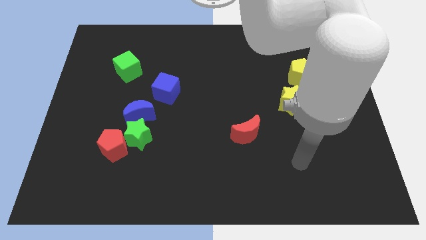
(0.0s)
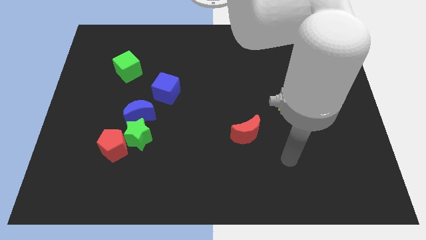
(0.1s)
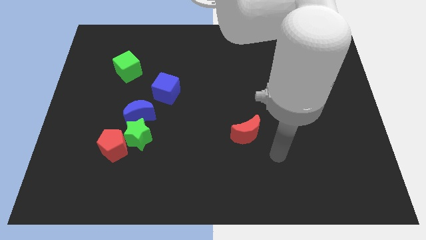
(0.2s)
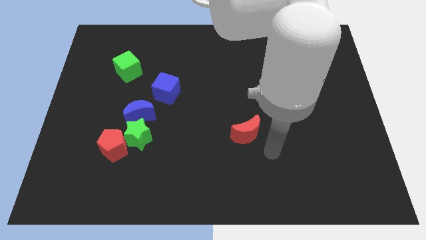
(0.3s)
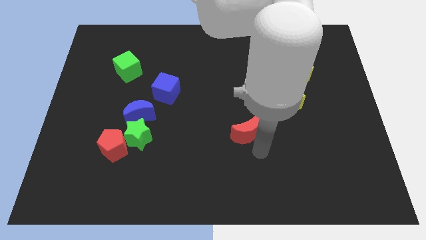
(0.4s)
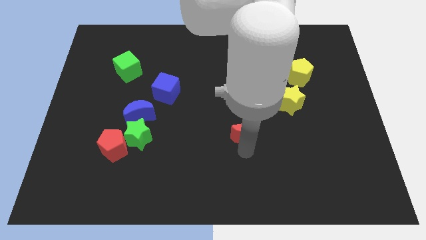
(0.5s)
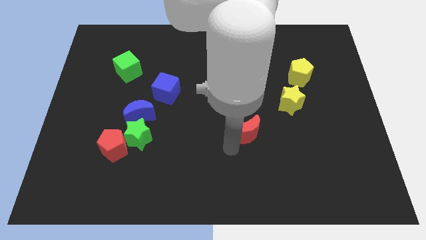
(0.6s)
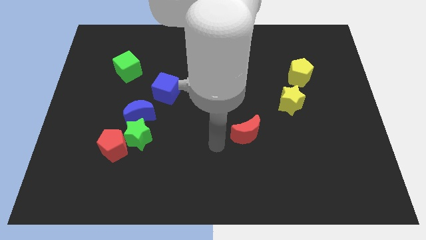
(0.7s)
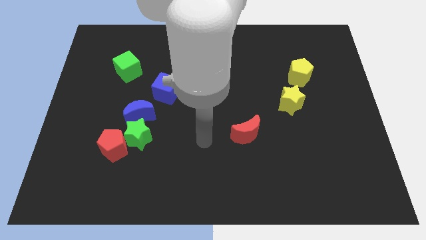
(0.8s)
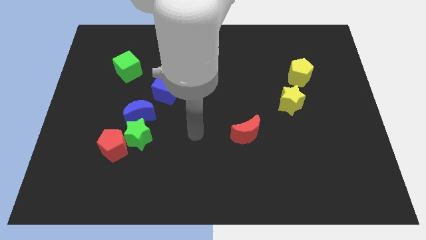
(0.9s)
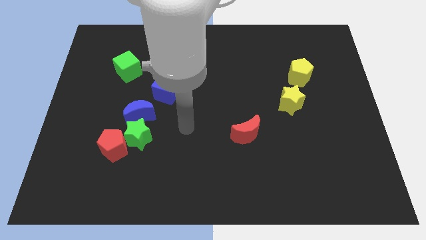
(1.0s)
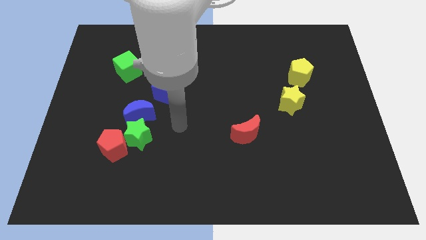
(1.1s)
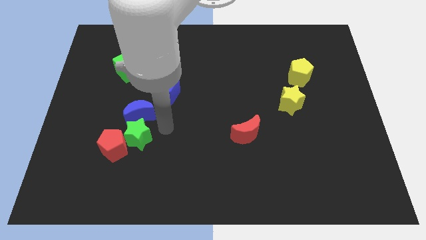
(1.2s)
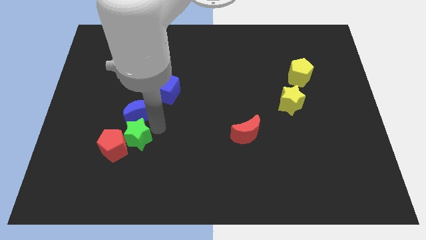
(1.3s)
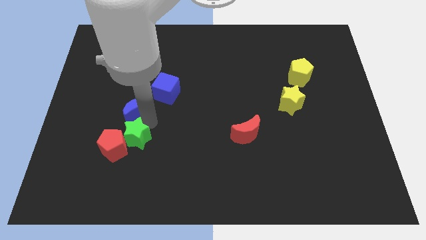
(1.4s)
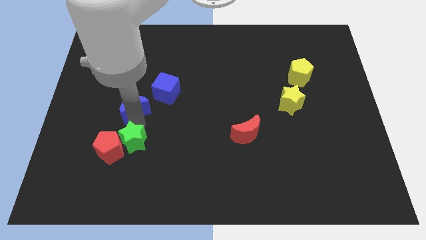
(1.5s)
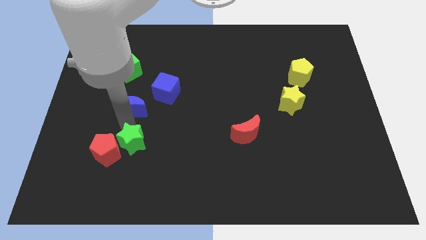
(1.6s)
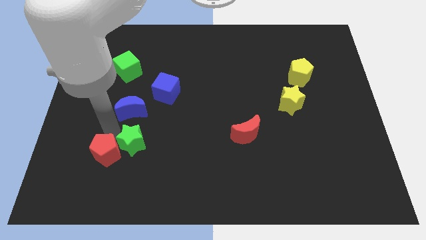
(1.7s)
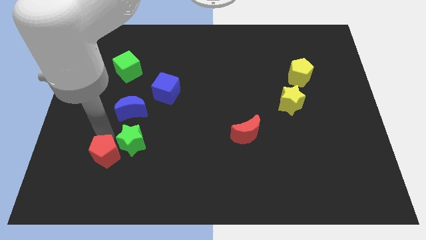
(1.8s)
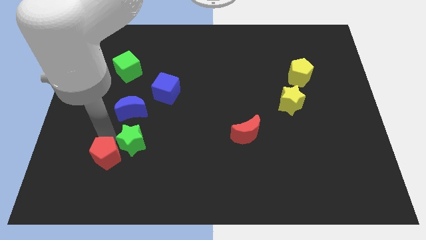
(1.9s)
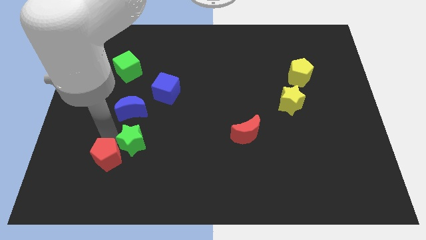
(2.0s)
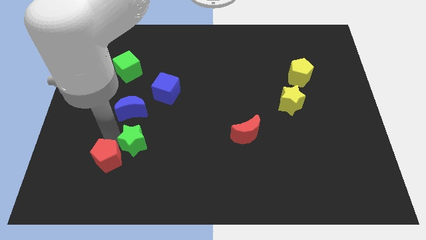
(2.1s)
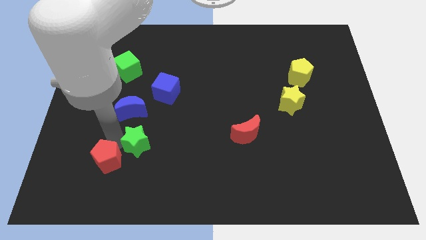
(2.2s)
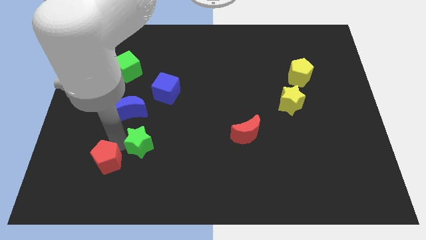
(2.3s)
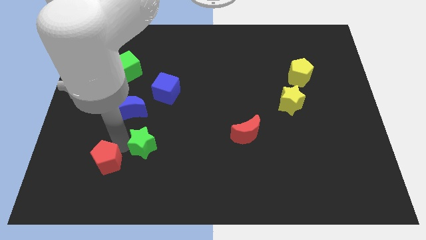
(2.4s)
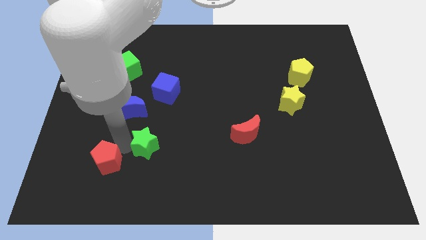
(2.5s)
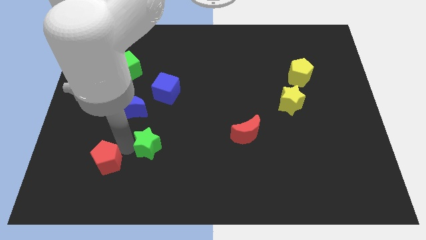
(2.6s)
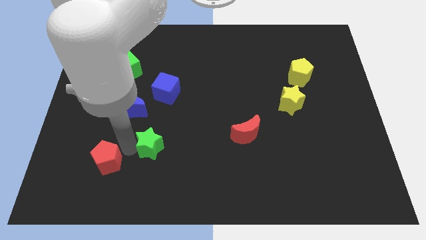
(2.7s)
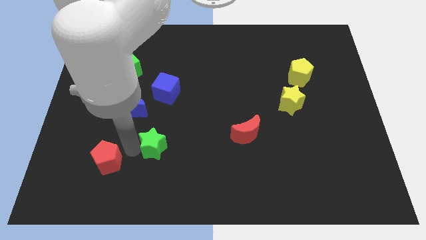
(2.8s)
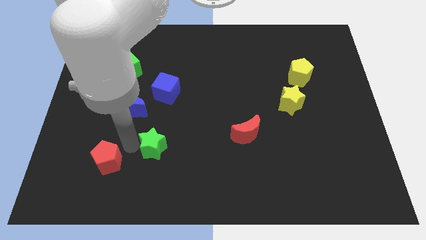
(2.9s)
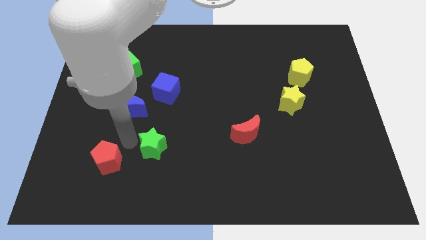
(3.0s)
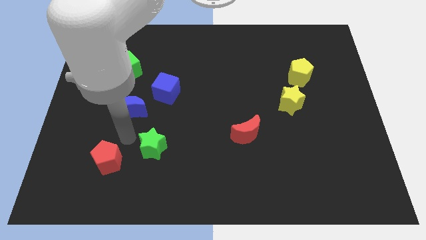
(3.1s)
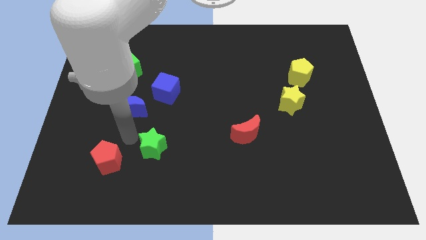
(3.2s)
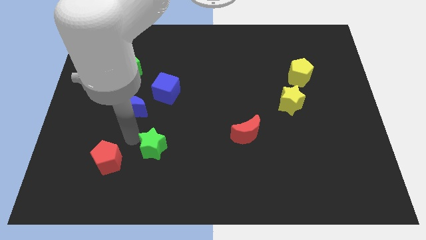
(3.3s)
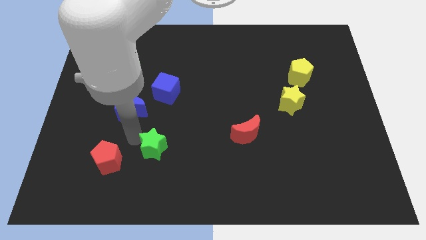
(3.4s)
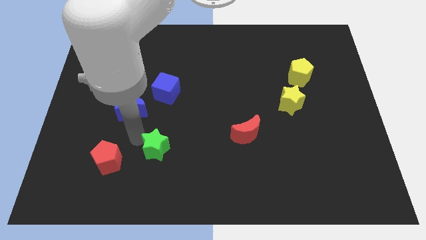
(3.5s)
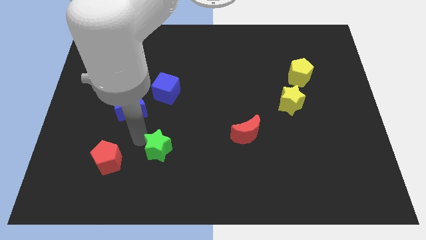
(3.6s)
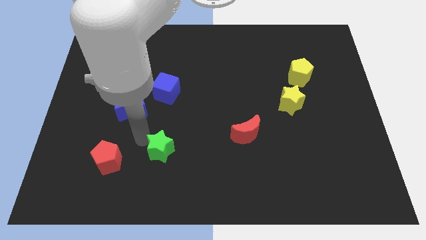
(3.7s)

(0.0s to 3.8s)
pull the green star apart from the red pentagon and blue moon

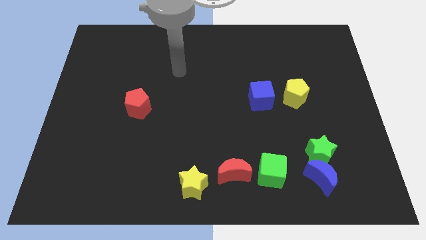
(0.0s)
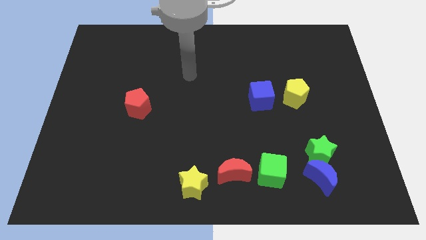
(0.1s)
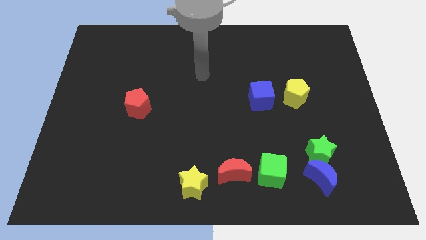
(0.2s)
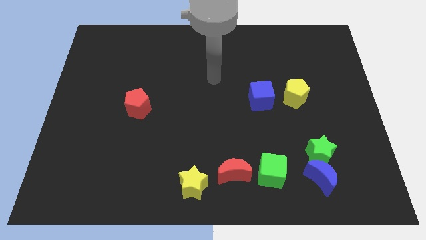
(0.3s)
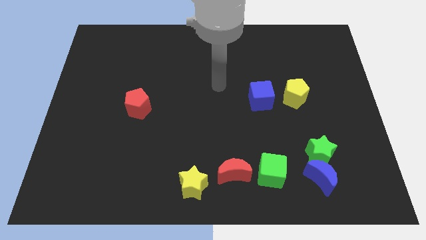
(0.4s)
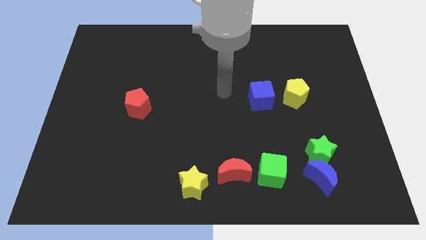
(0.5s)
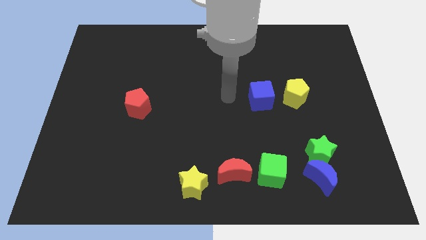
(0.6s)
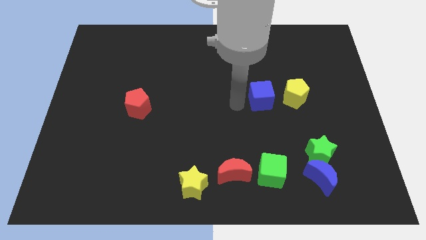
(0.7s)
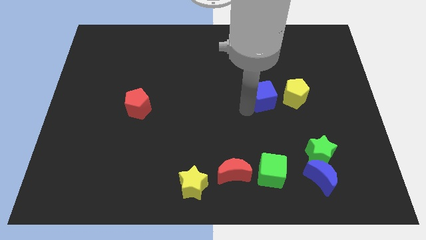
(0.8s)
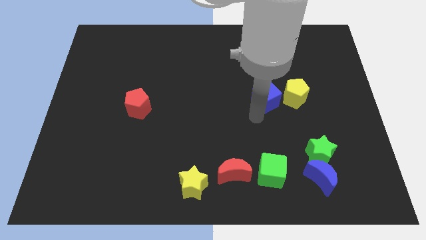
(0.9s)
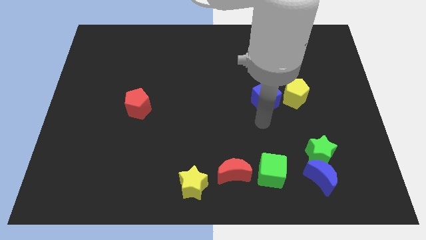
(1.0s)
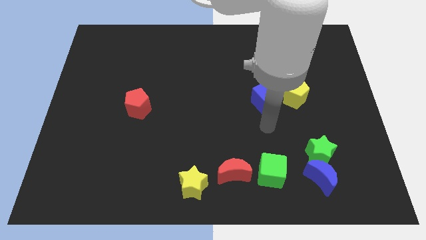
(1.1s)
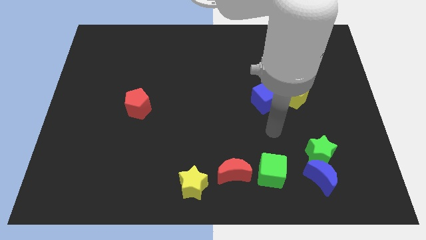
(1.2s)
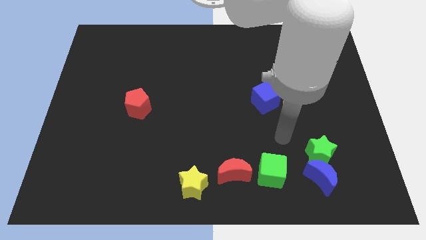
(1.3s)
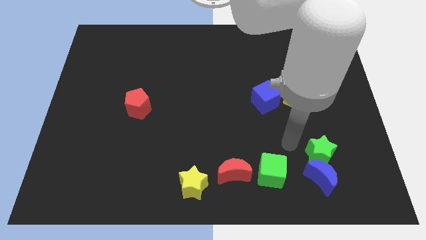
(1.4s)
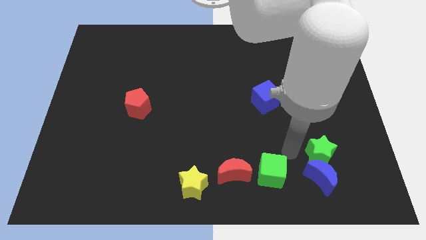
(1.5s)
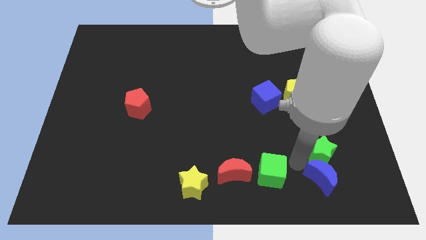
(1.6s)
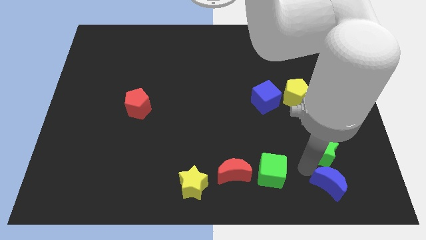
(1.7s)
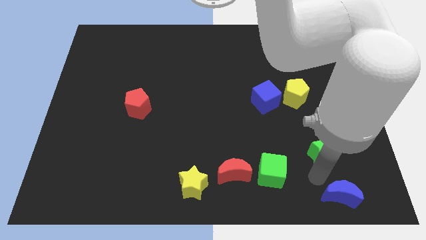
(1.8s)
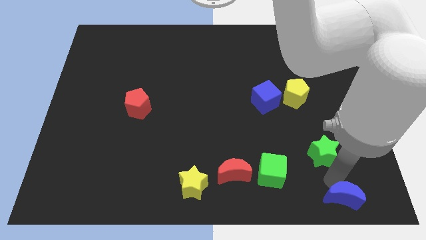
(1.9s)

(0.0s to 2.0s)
pull the green star apart from the blue moon

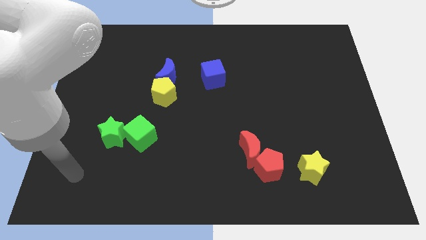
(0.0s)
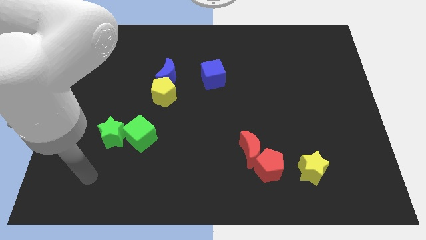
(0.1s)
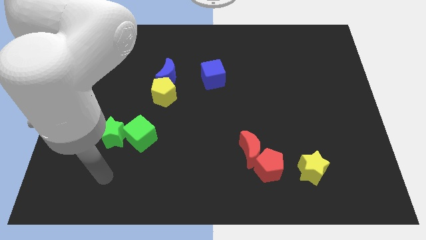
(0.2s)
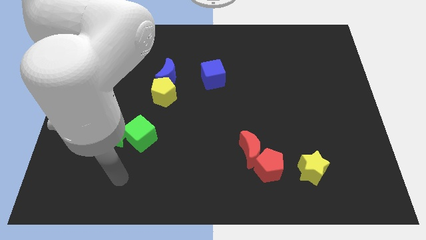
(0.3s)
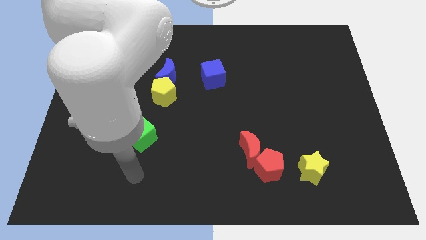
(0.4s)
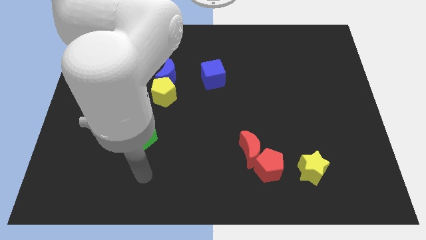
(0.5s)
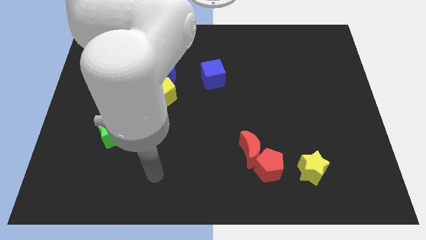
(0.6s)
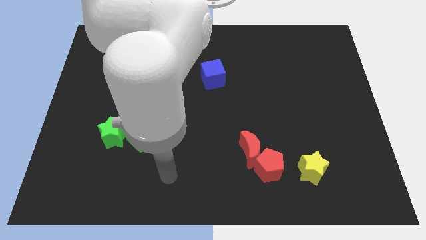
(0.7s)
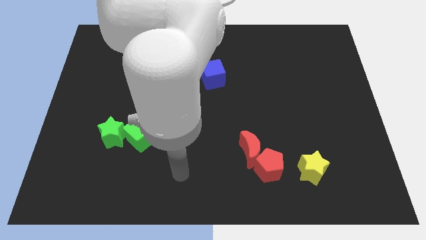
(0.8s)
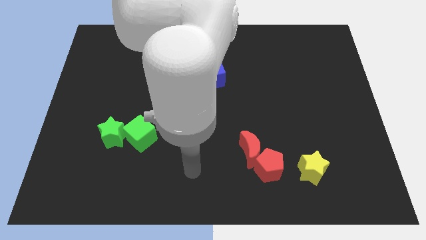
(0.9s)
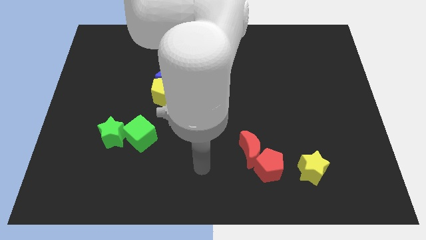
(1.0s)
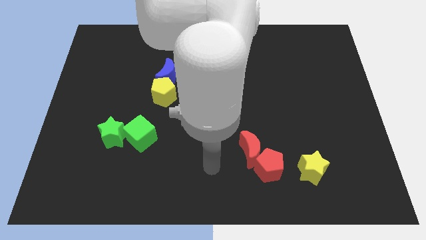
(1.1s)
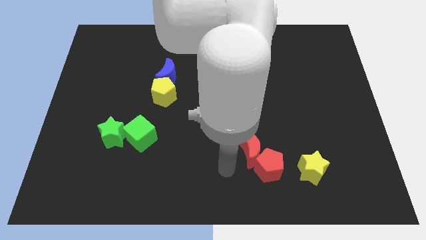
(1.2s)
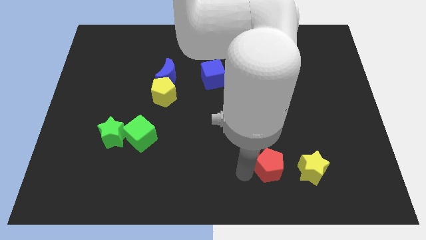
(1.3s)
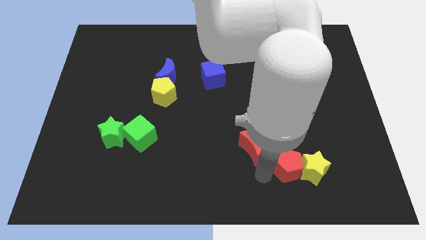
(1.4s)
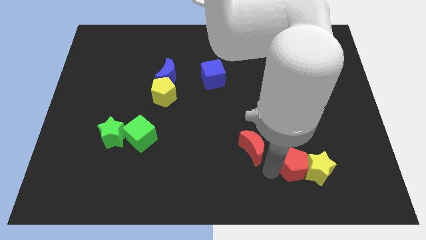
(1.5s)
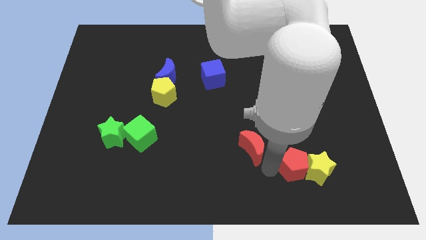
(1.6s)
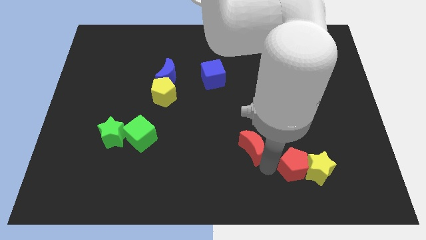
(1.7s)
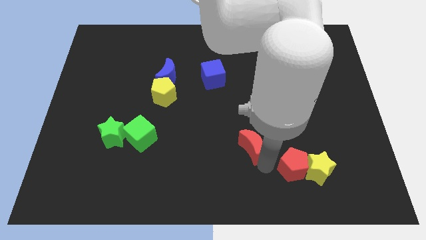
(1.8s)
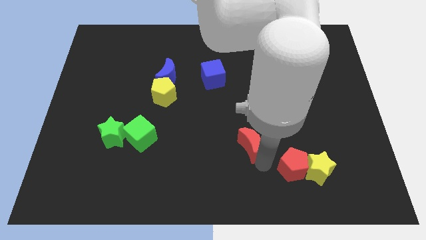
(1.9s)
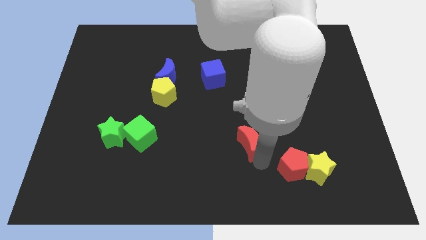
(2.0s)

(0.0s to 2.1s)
pull the red moon apart from the red pentagon

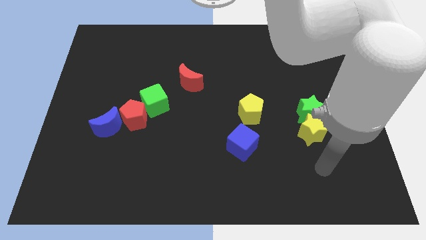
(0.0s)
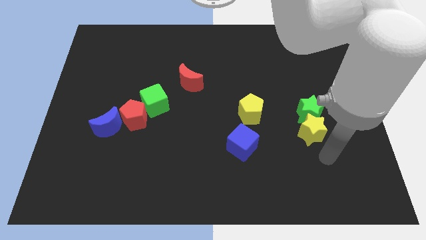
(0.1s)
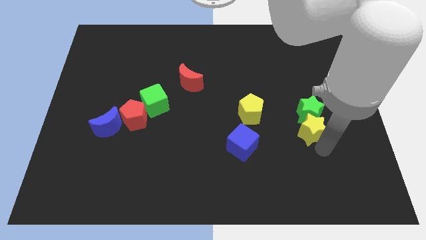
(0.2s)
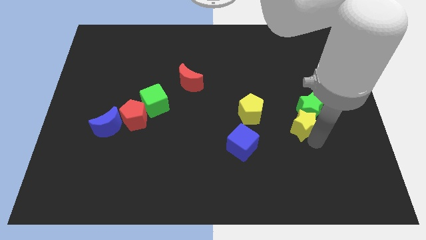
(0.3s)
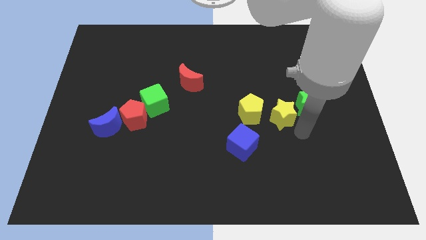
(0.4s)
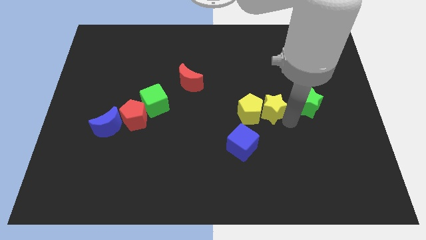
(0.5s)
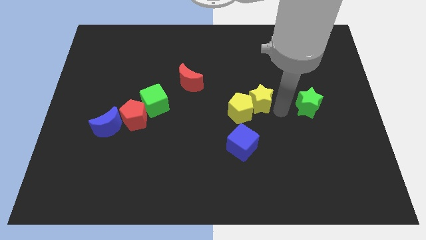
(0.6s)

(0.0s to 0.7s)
move the green star away from the yellow star

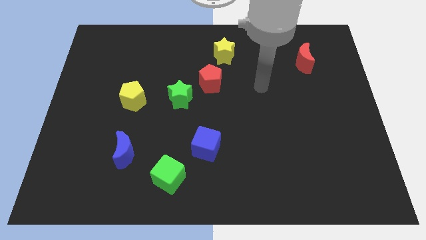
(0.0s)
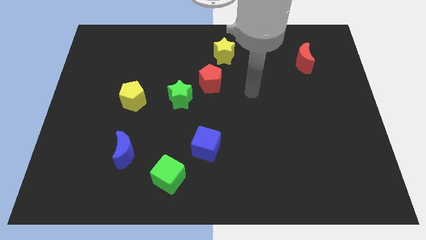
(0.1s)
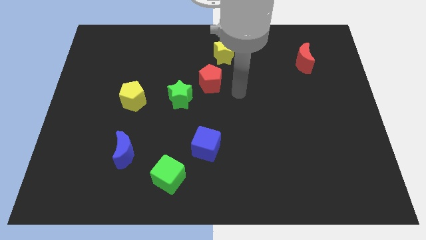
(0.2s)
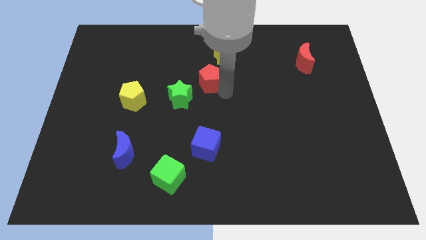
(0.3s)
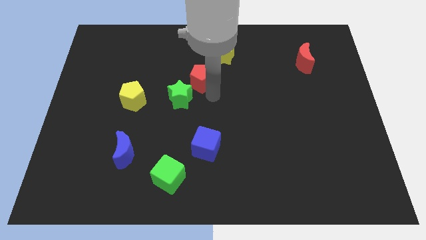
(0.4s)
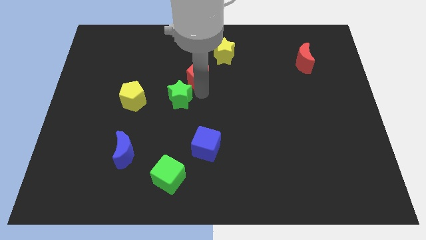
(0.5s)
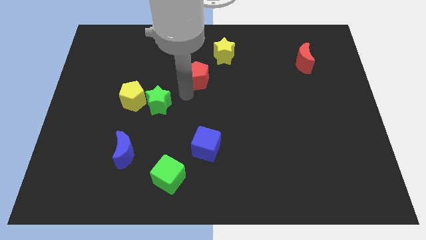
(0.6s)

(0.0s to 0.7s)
pull the red pentagon apart from the green star
